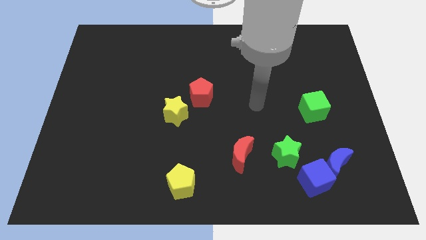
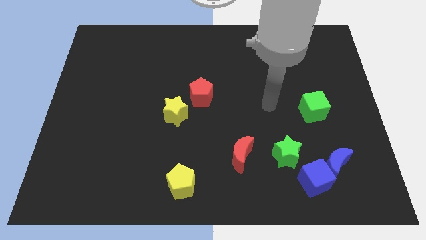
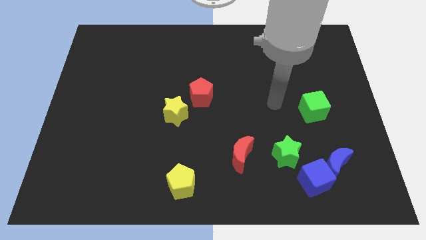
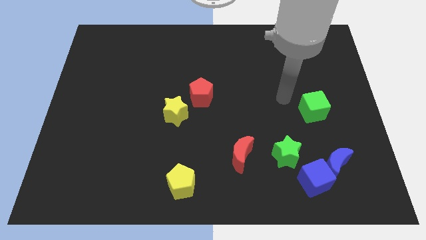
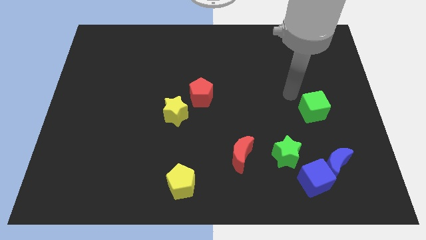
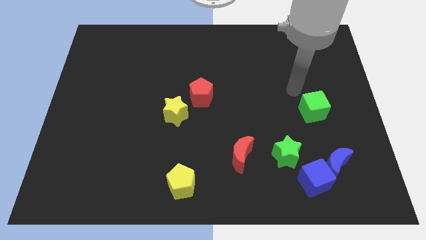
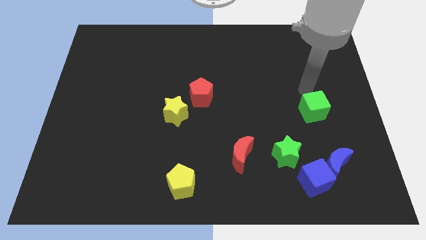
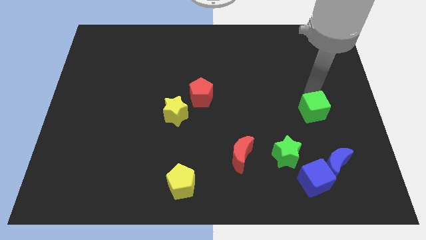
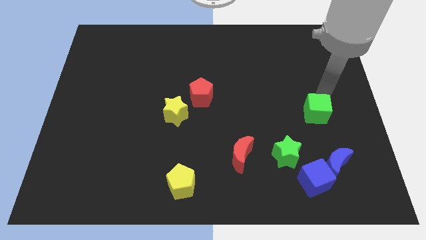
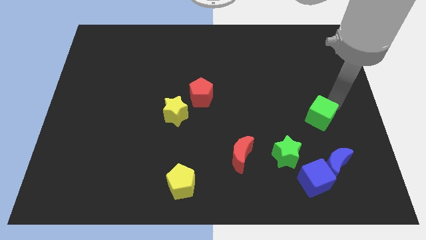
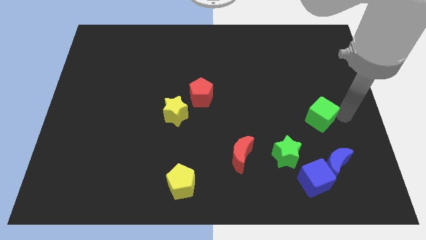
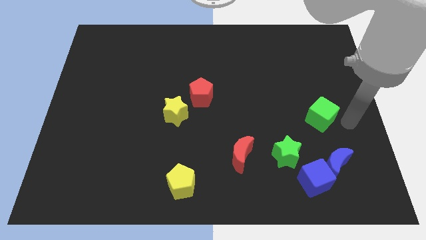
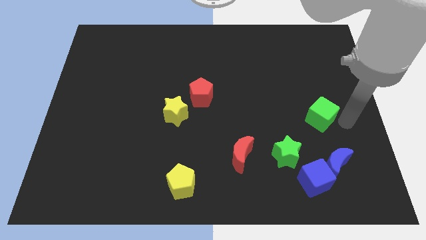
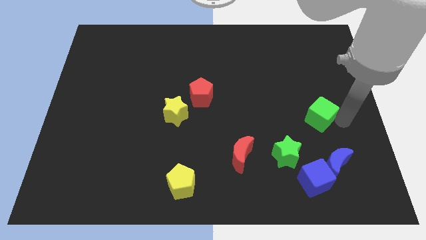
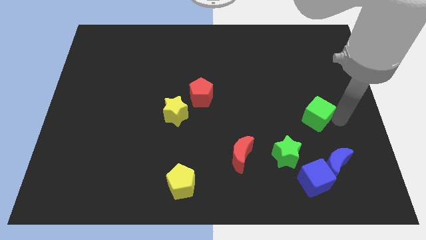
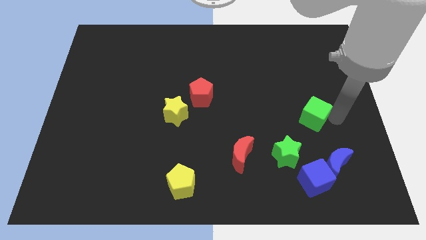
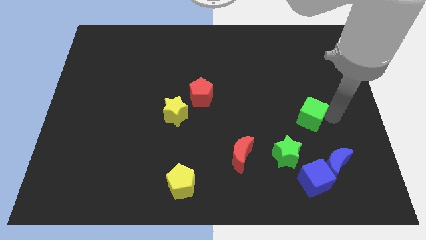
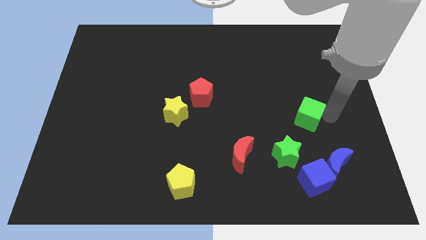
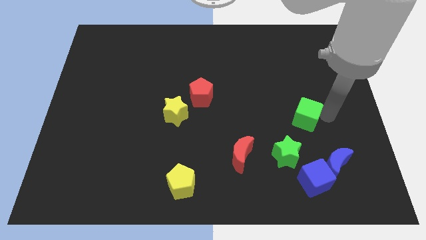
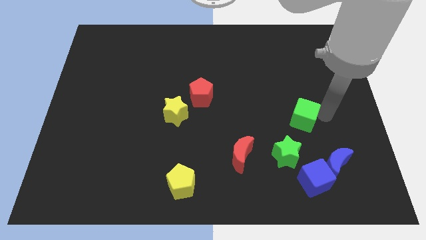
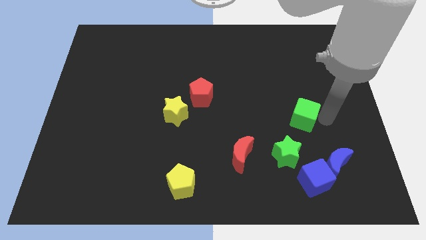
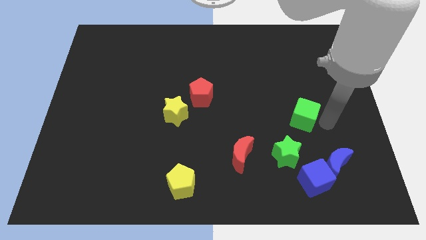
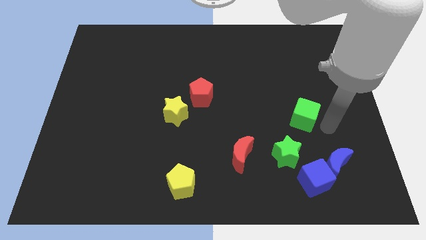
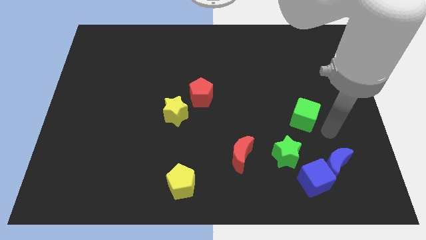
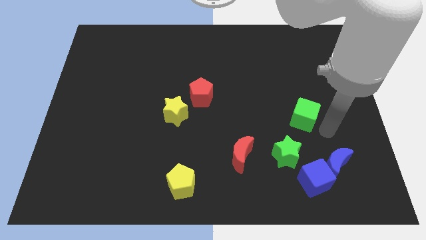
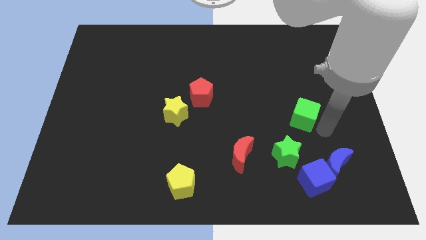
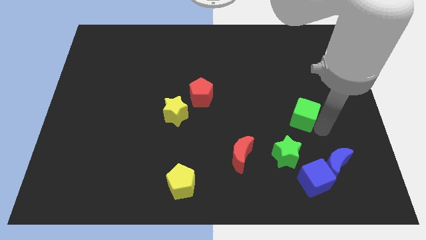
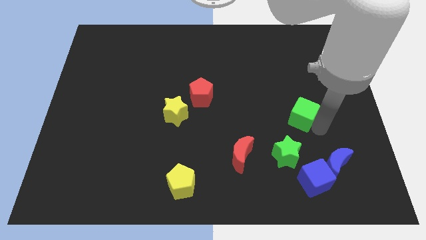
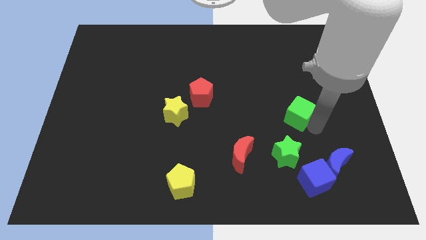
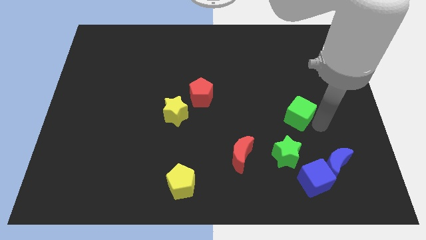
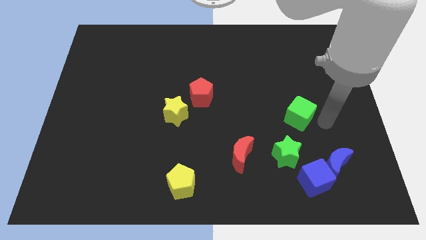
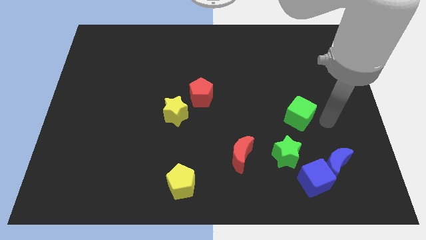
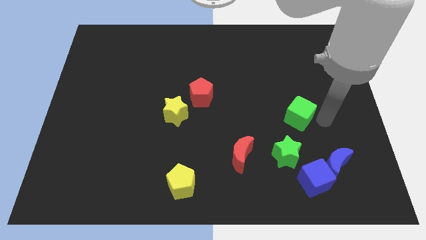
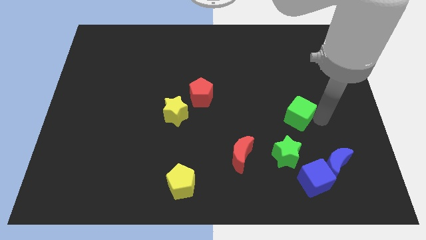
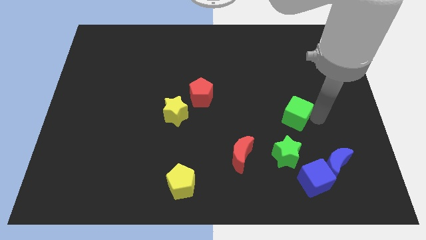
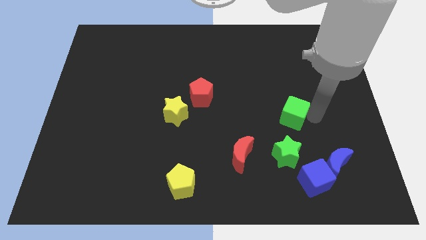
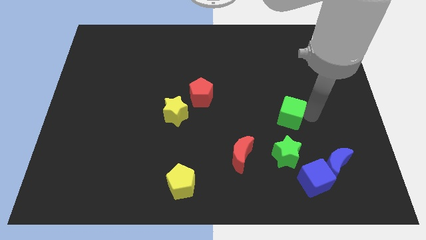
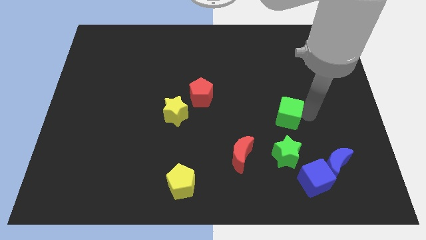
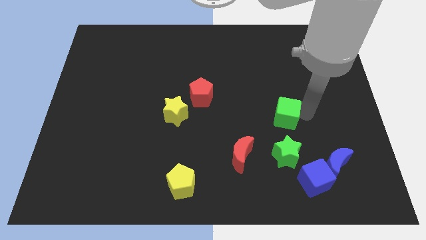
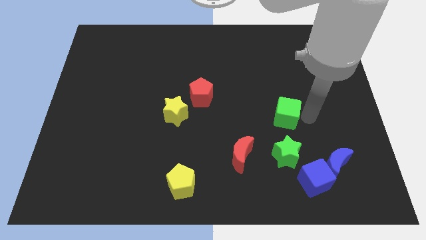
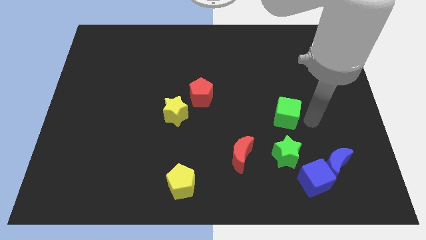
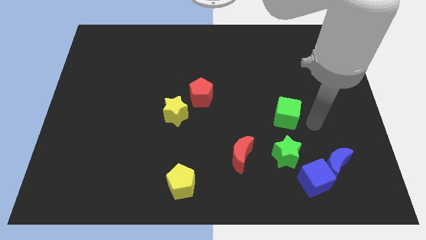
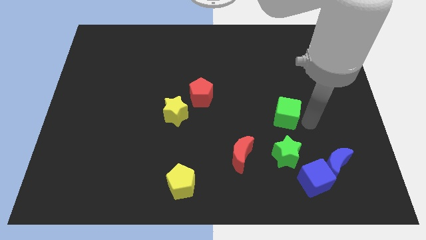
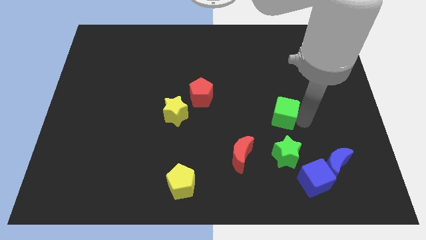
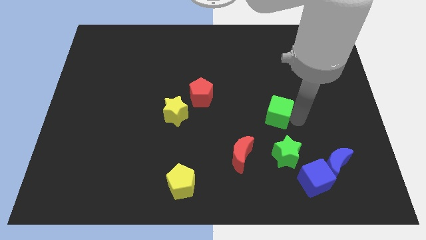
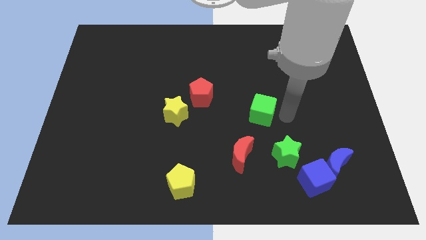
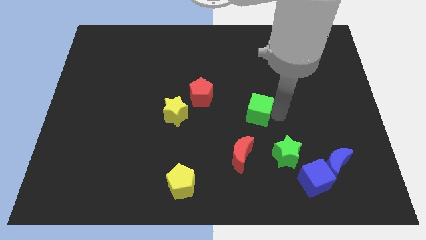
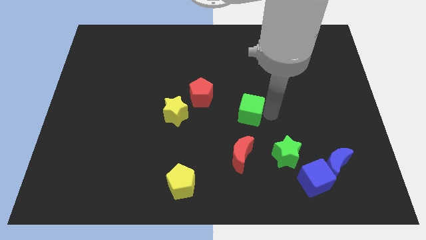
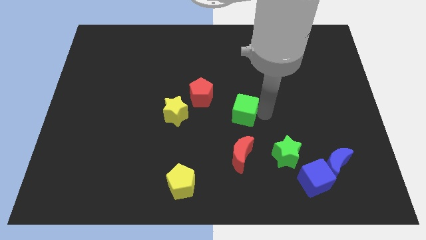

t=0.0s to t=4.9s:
move the green cube to the right side of the yellow star

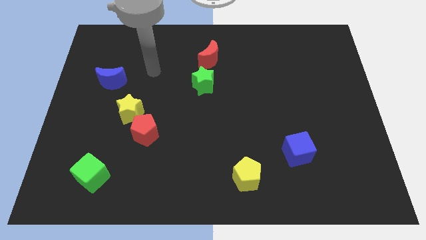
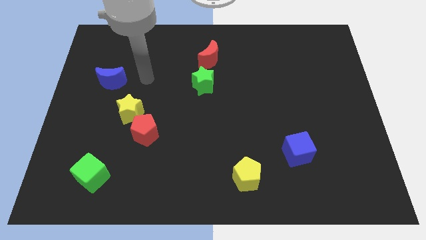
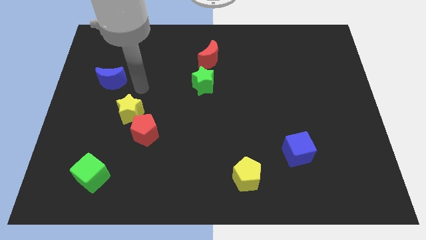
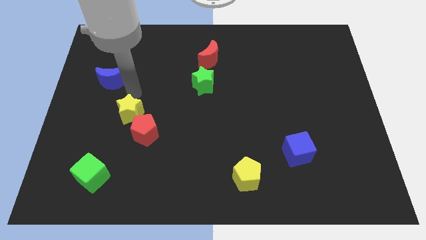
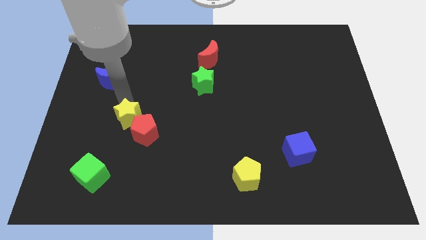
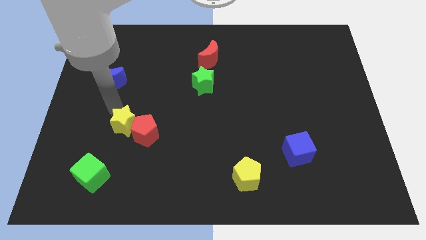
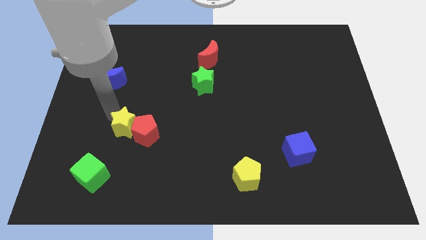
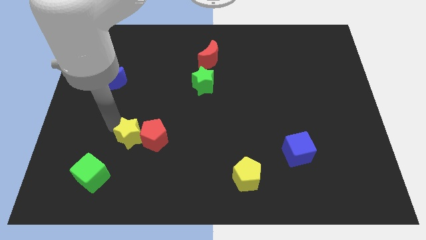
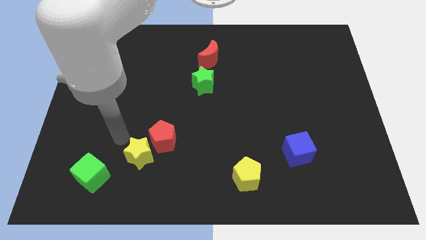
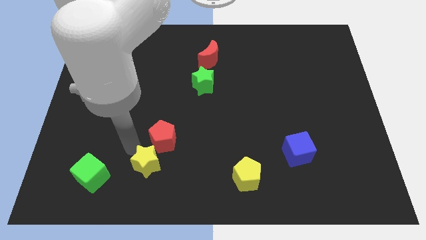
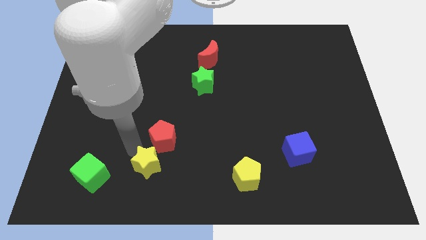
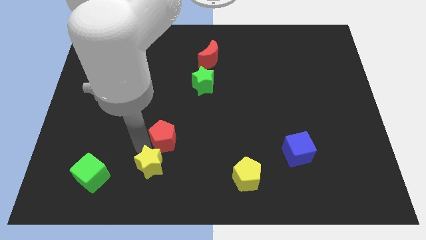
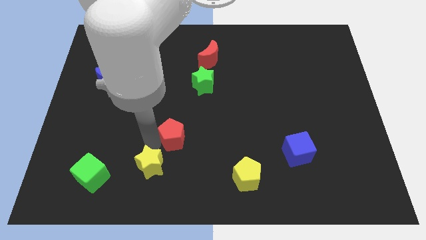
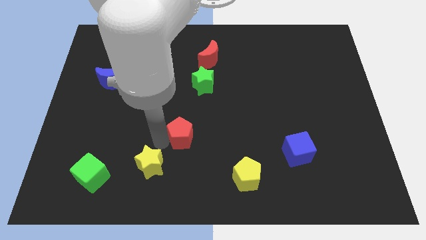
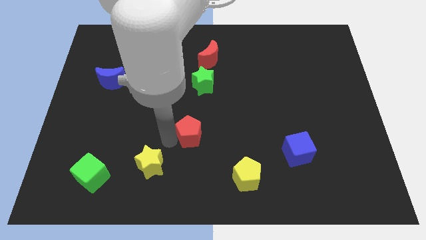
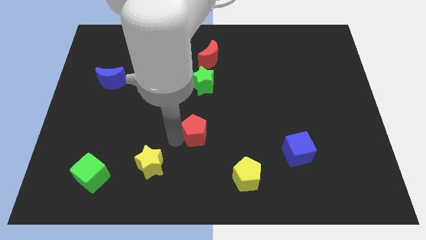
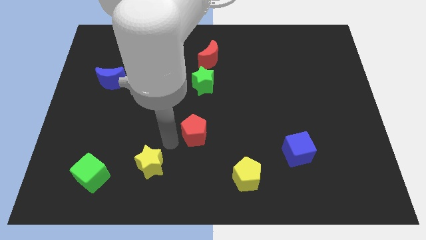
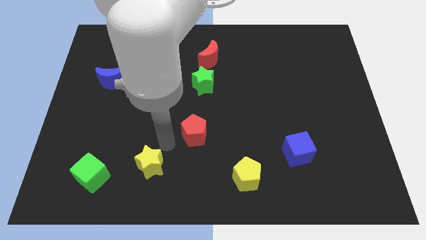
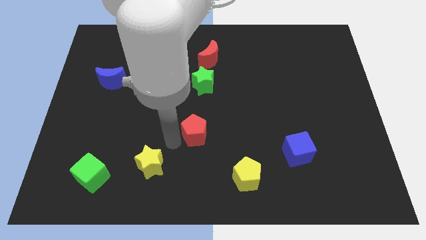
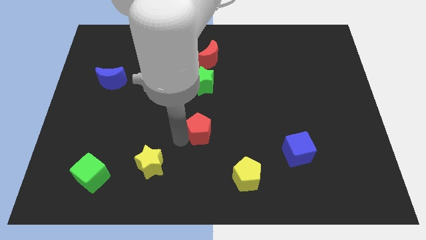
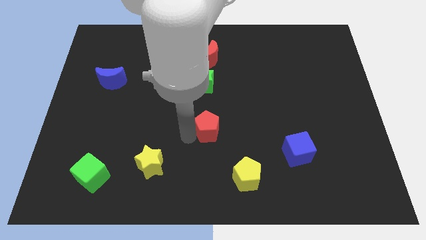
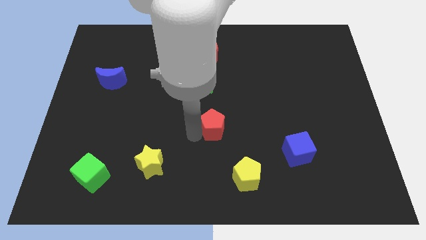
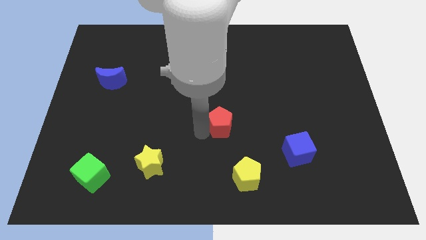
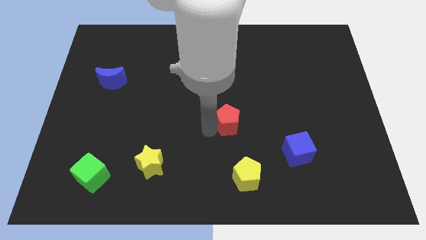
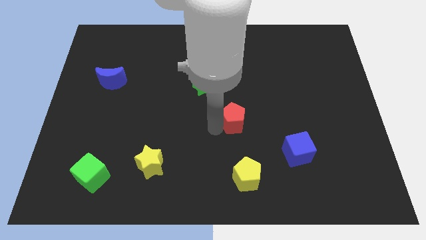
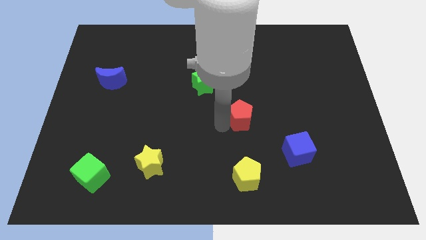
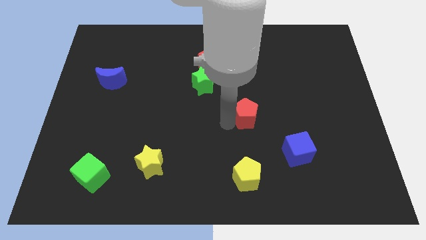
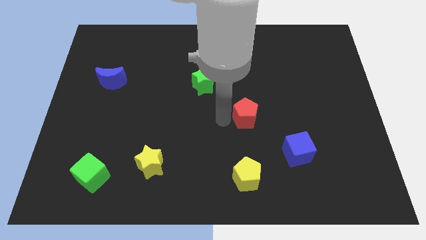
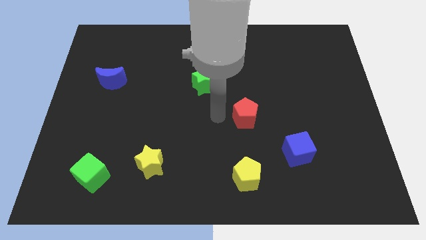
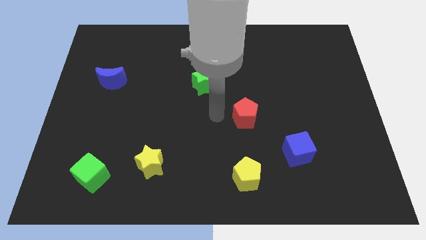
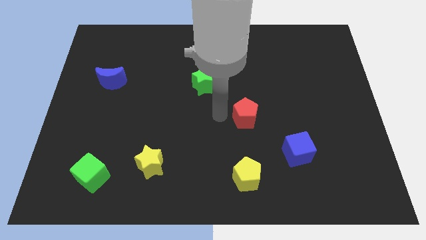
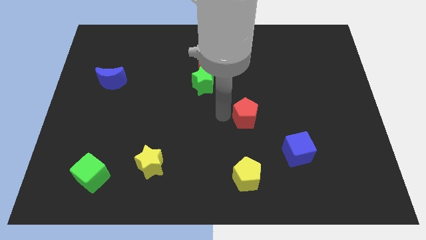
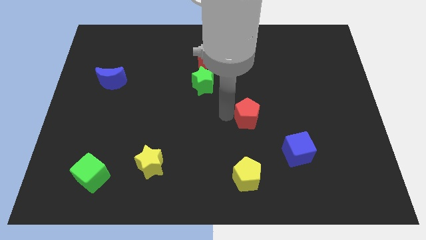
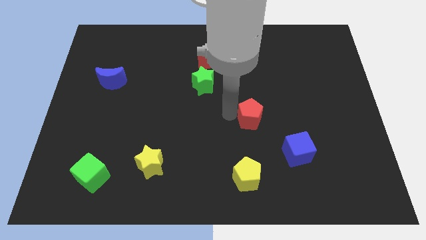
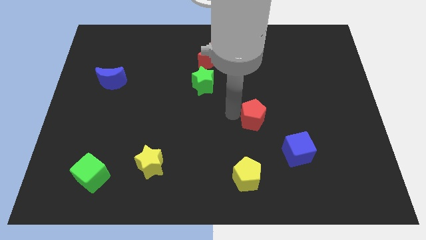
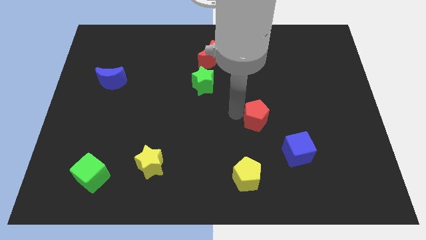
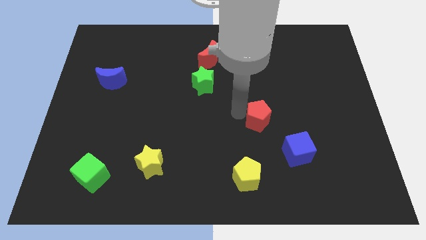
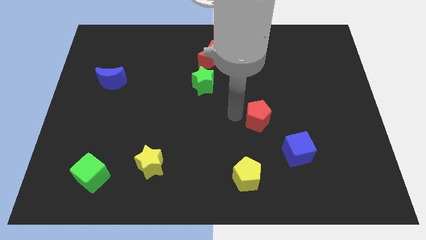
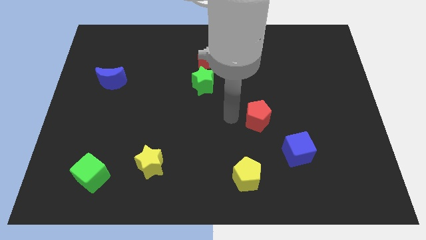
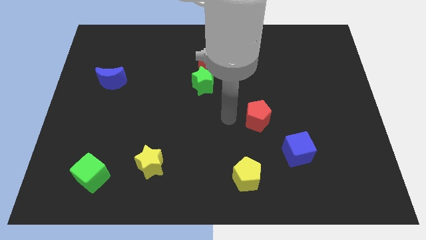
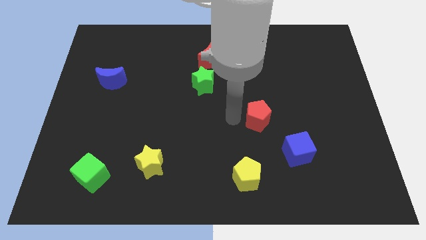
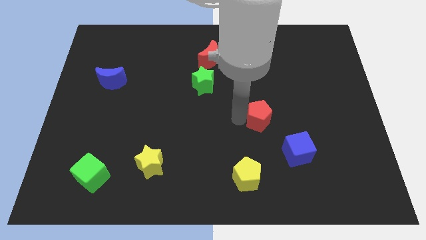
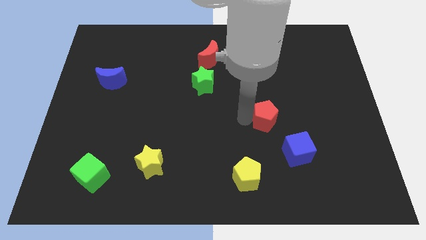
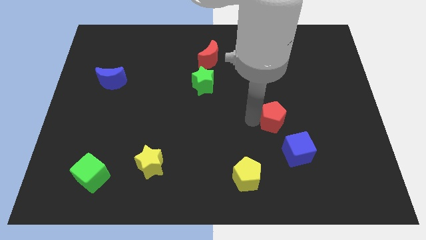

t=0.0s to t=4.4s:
slide the red pentagon above the blue cube
